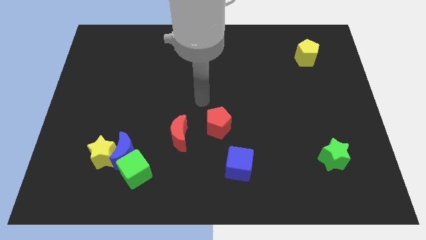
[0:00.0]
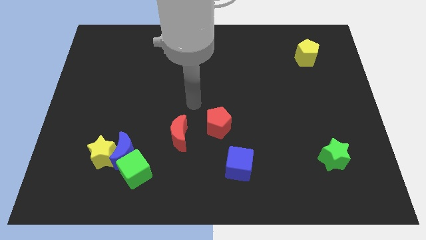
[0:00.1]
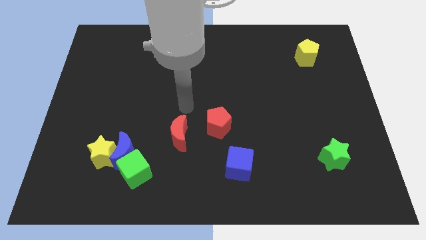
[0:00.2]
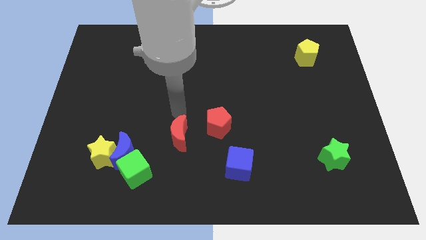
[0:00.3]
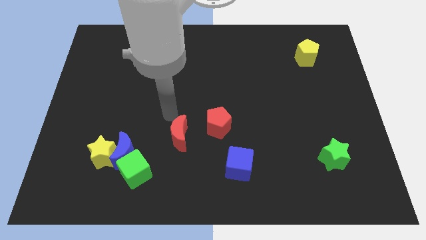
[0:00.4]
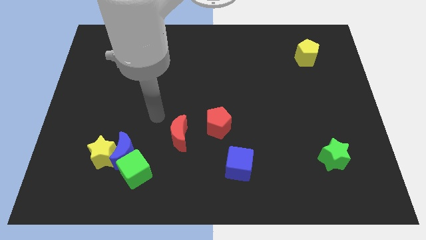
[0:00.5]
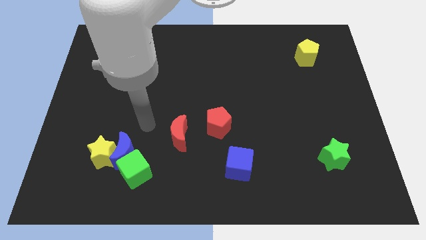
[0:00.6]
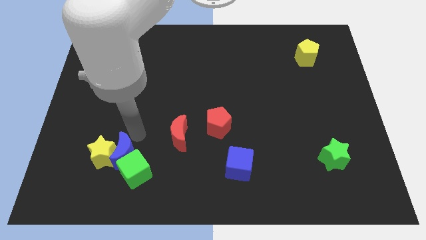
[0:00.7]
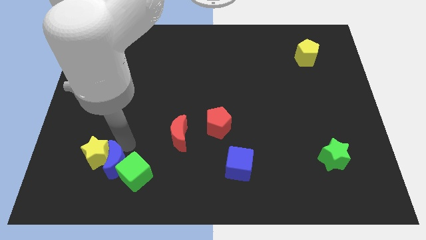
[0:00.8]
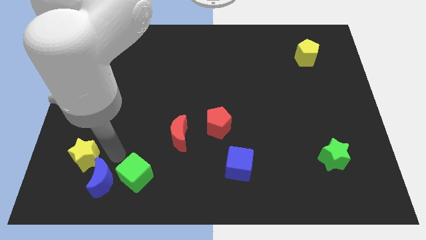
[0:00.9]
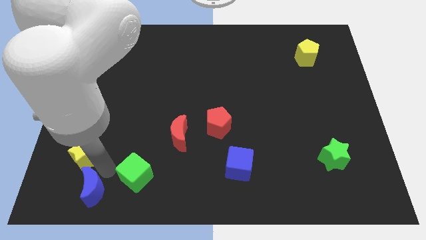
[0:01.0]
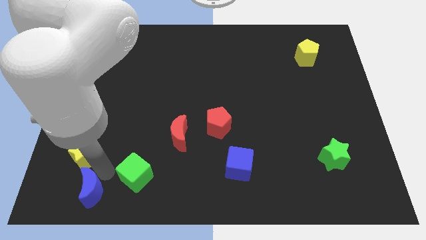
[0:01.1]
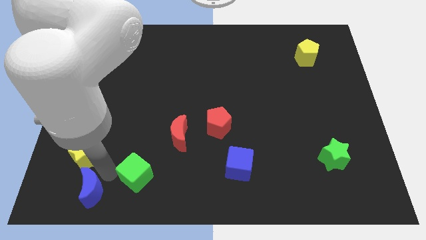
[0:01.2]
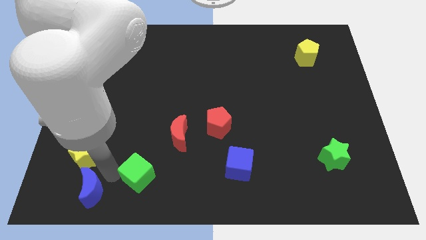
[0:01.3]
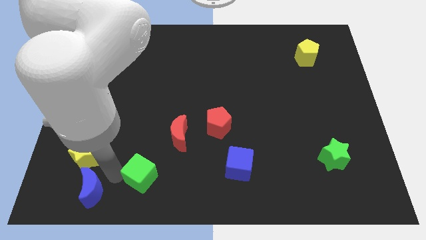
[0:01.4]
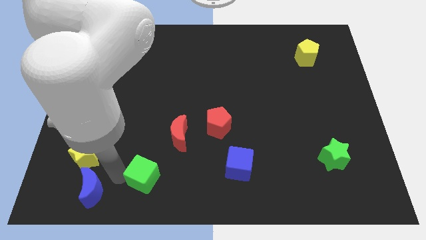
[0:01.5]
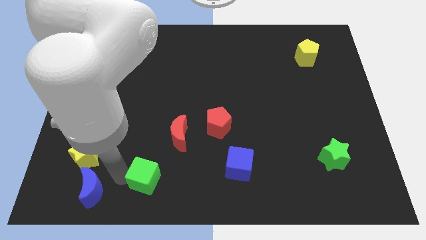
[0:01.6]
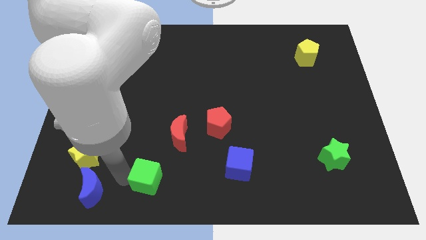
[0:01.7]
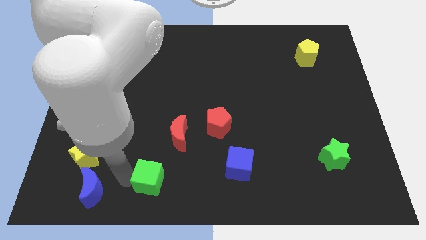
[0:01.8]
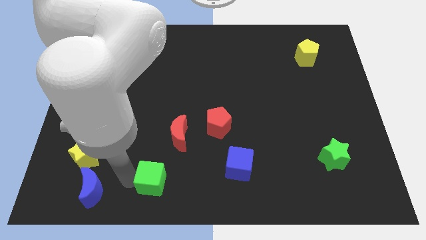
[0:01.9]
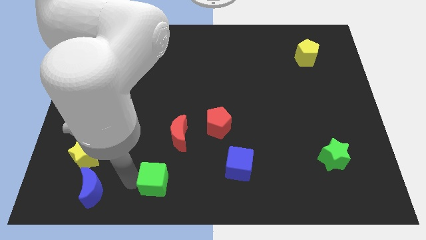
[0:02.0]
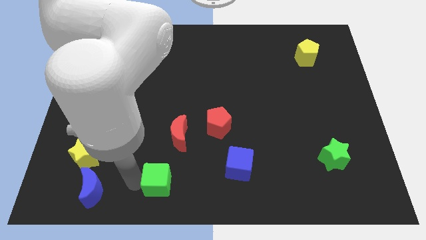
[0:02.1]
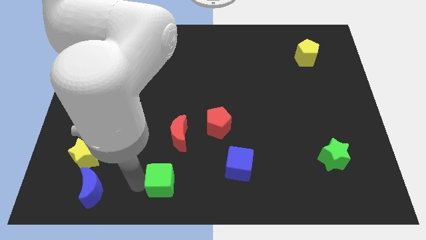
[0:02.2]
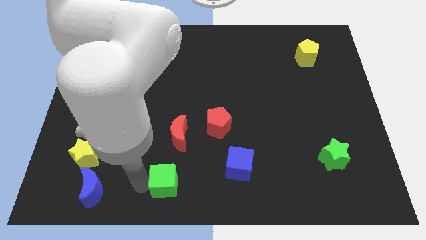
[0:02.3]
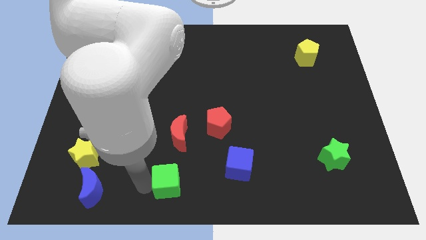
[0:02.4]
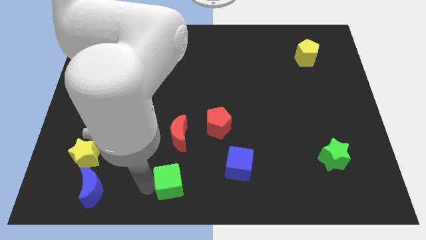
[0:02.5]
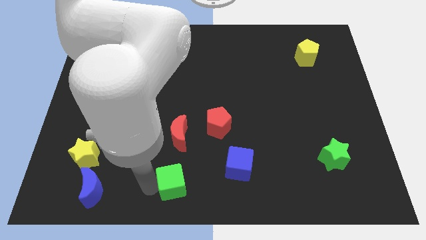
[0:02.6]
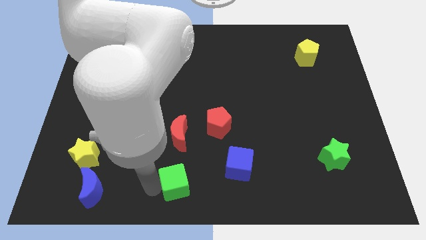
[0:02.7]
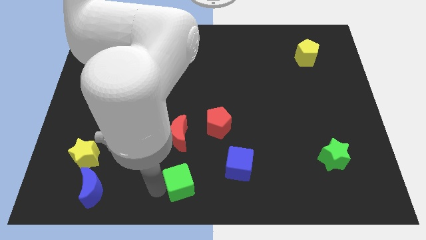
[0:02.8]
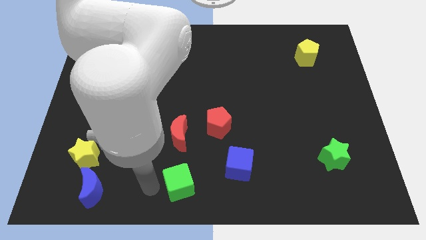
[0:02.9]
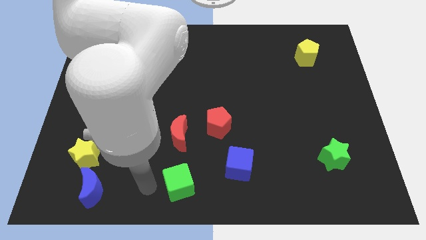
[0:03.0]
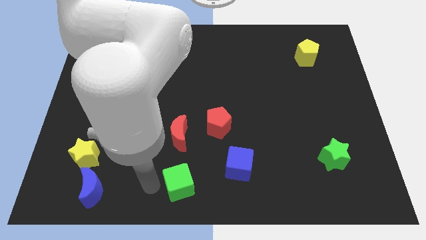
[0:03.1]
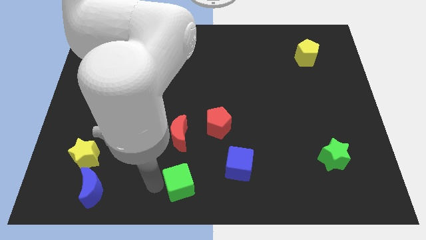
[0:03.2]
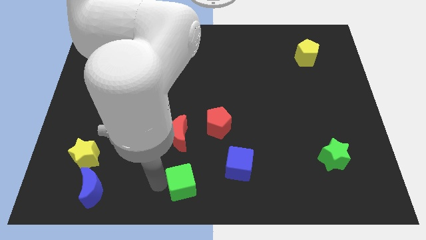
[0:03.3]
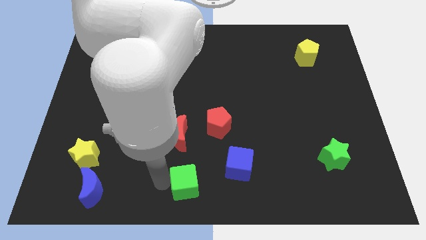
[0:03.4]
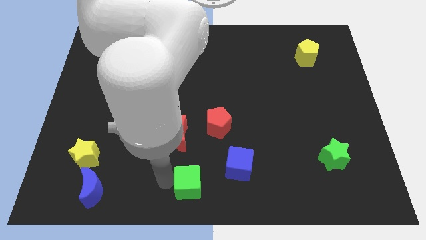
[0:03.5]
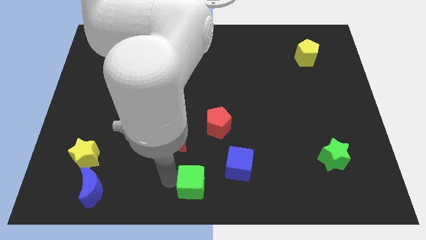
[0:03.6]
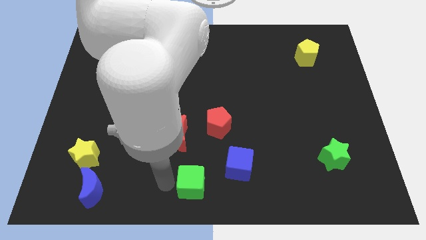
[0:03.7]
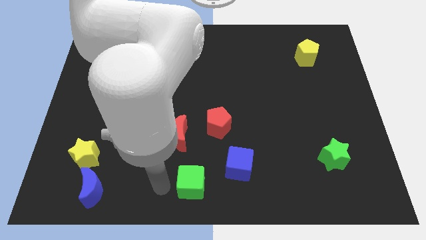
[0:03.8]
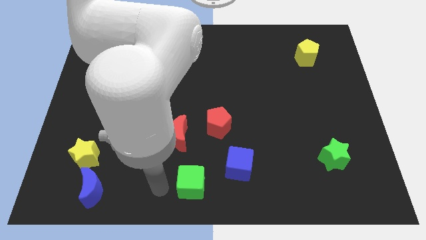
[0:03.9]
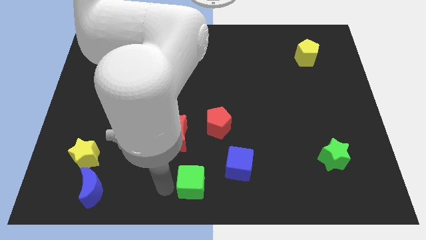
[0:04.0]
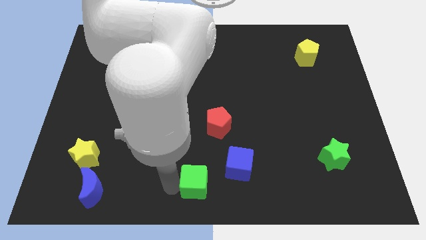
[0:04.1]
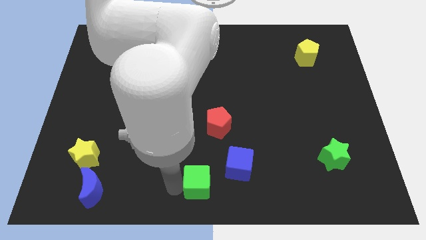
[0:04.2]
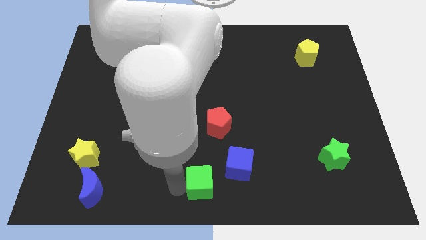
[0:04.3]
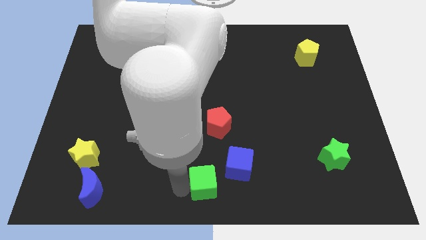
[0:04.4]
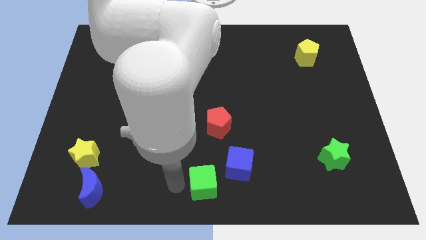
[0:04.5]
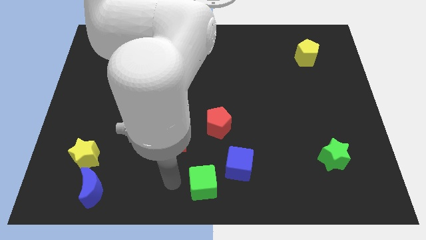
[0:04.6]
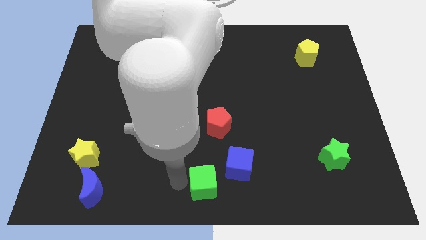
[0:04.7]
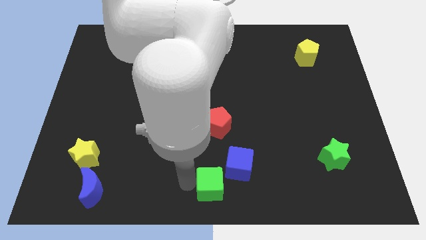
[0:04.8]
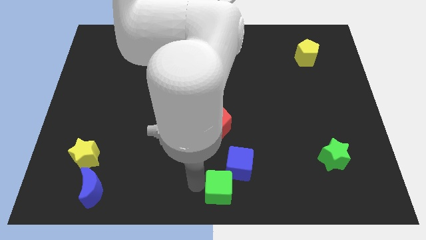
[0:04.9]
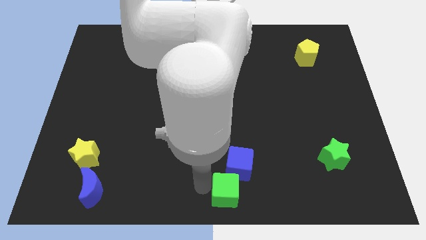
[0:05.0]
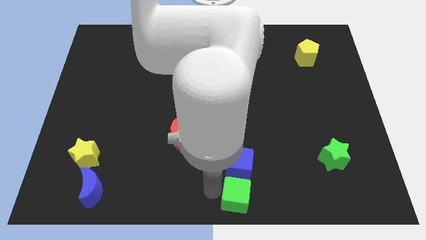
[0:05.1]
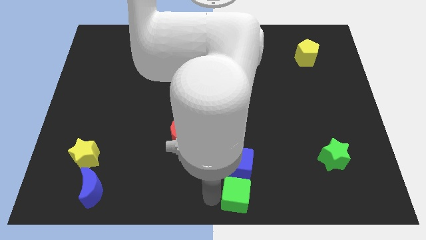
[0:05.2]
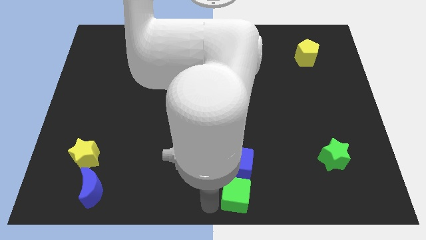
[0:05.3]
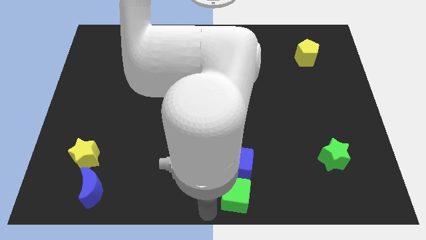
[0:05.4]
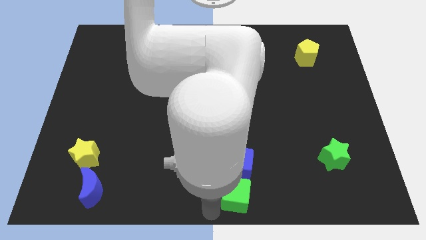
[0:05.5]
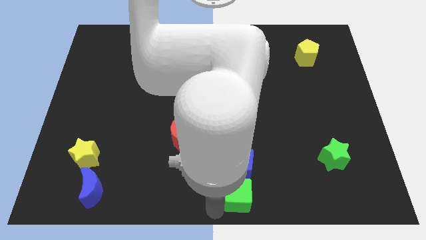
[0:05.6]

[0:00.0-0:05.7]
push the green cube right

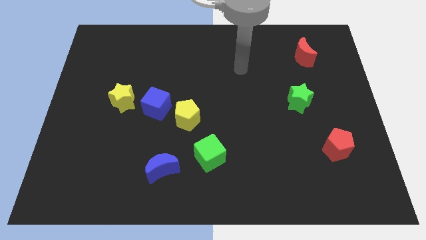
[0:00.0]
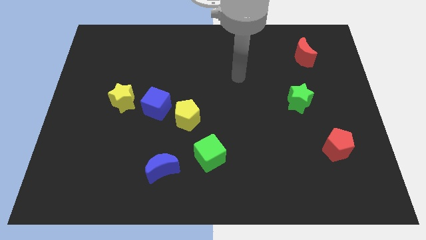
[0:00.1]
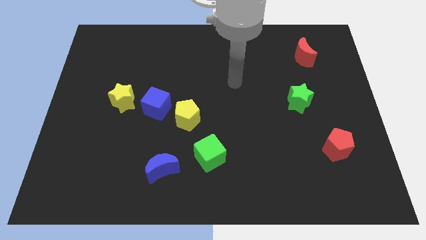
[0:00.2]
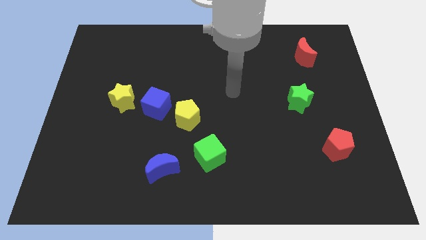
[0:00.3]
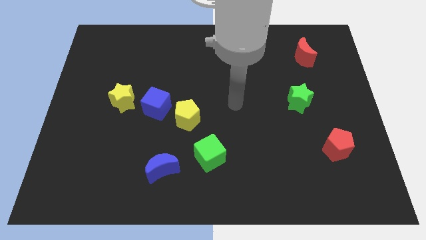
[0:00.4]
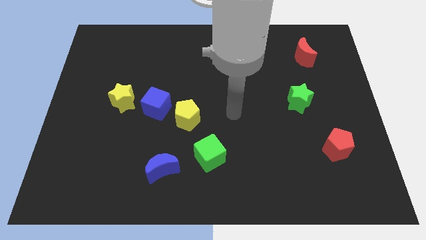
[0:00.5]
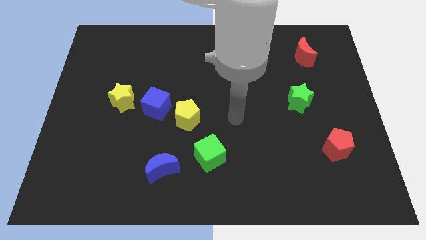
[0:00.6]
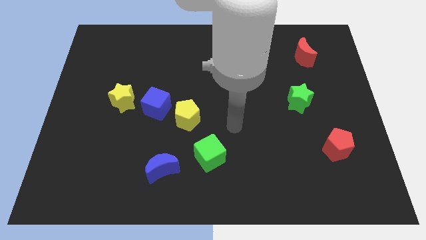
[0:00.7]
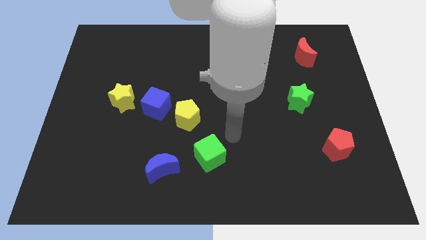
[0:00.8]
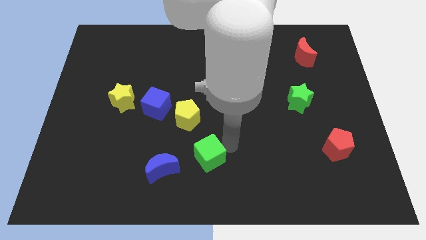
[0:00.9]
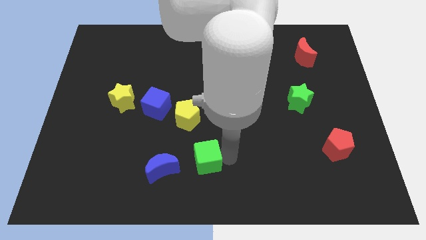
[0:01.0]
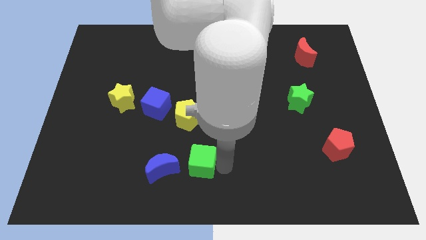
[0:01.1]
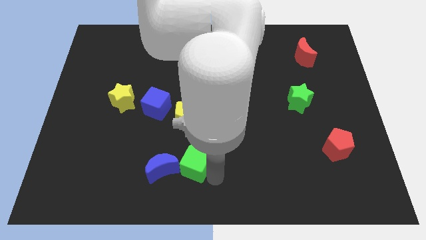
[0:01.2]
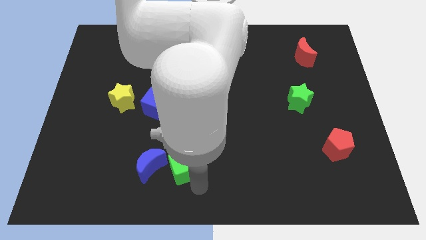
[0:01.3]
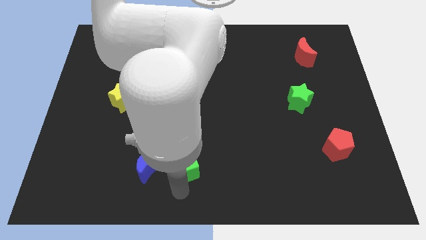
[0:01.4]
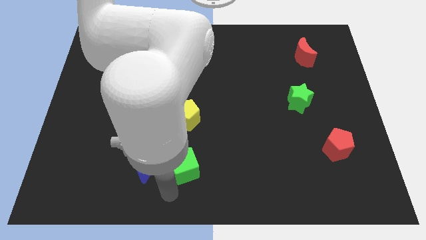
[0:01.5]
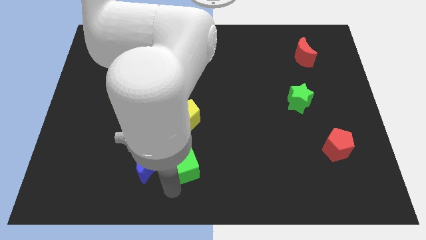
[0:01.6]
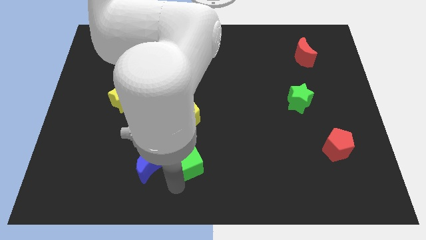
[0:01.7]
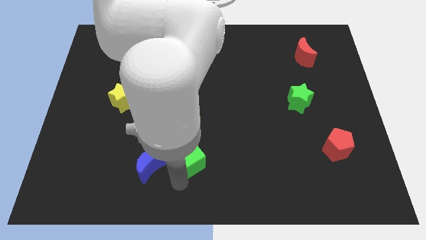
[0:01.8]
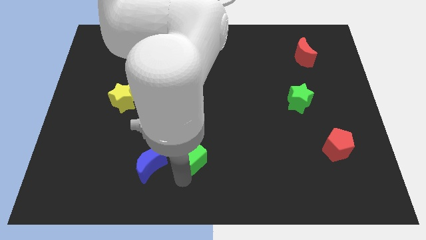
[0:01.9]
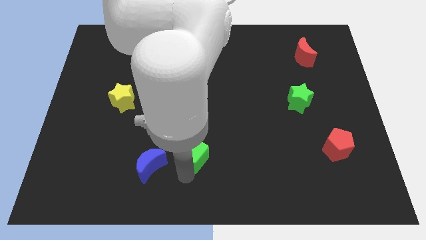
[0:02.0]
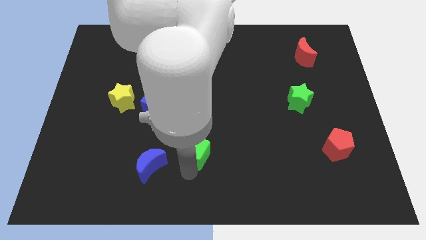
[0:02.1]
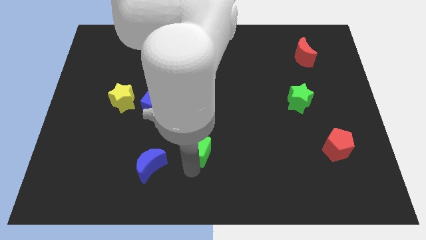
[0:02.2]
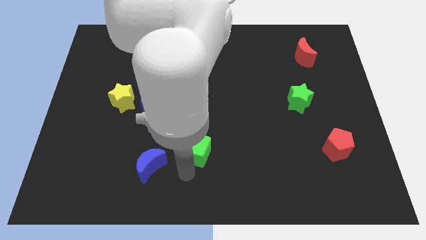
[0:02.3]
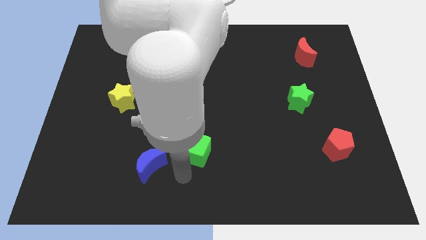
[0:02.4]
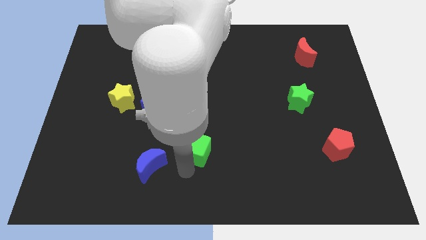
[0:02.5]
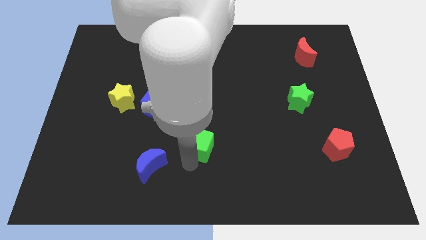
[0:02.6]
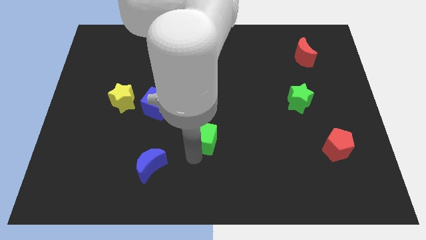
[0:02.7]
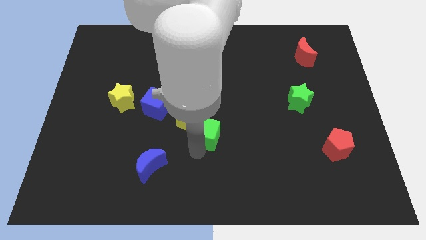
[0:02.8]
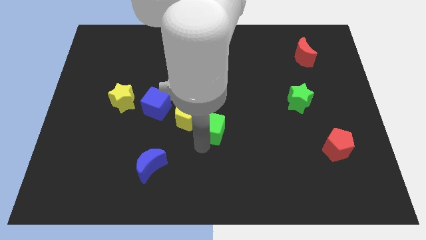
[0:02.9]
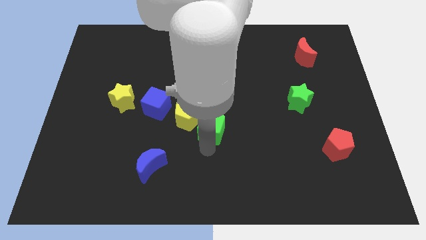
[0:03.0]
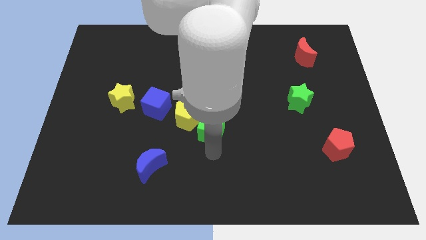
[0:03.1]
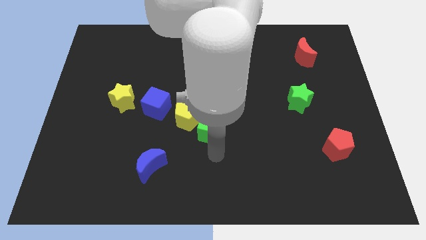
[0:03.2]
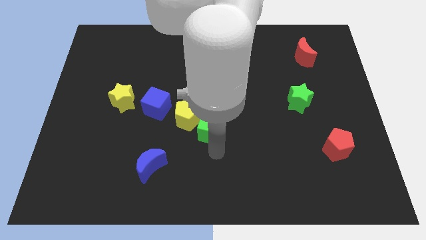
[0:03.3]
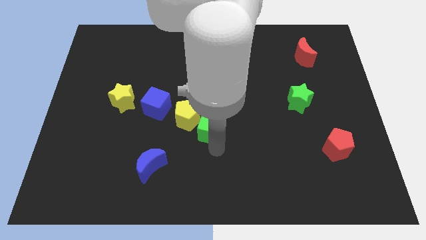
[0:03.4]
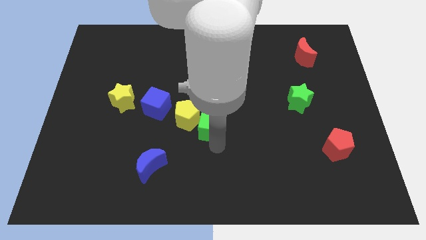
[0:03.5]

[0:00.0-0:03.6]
slightly move the green cube up
